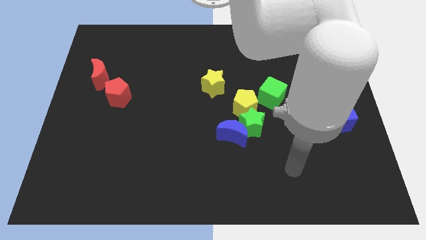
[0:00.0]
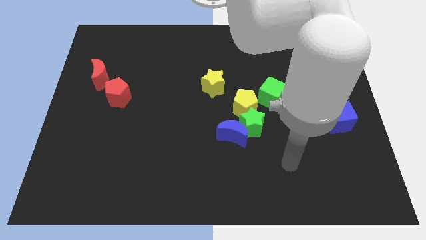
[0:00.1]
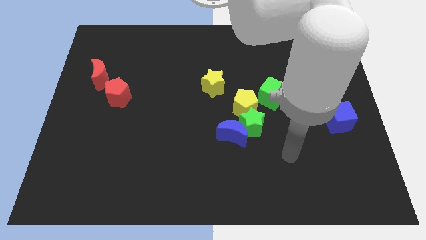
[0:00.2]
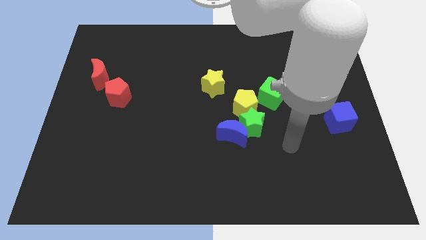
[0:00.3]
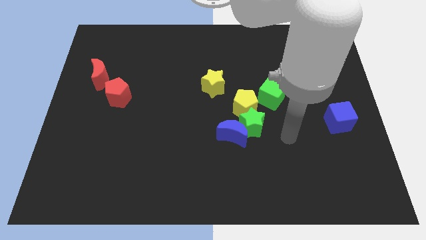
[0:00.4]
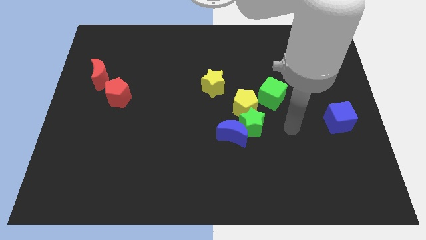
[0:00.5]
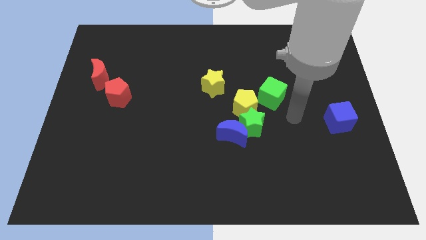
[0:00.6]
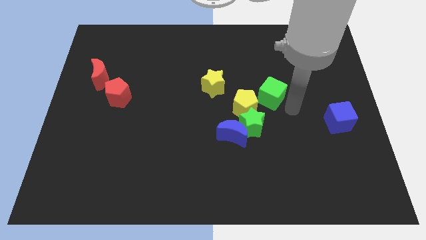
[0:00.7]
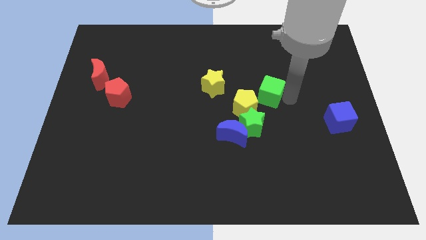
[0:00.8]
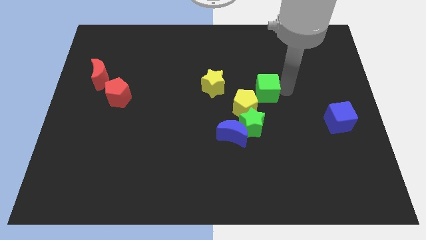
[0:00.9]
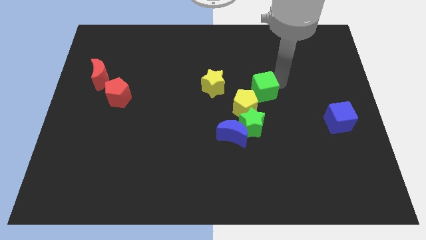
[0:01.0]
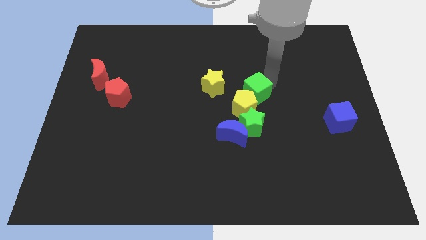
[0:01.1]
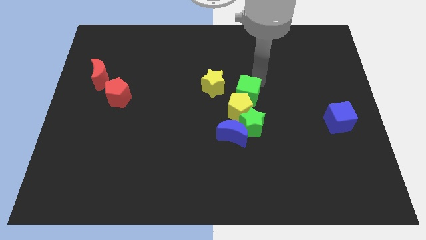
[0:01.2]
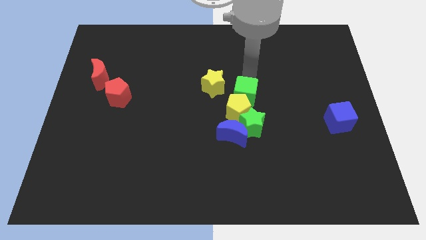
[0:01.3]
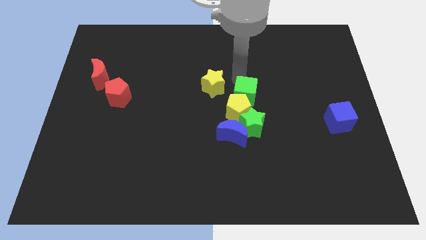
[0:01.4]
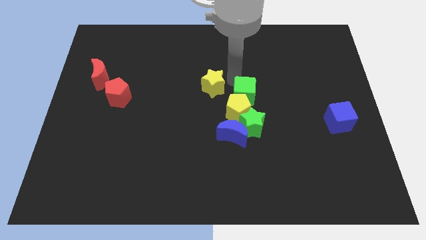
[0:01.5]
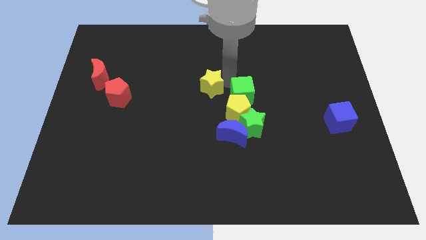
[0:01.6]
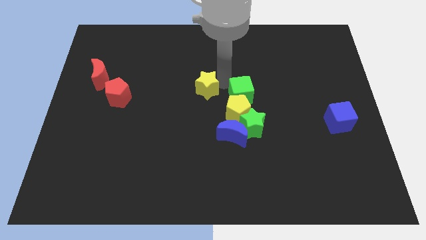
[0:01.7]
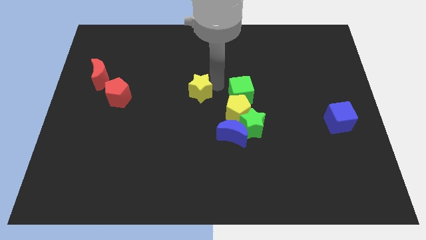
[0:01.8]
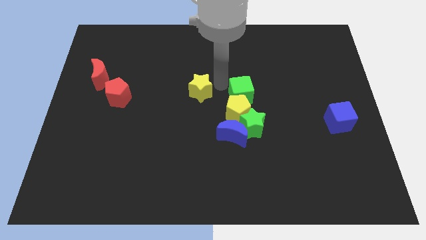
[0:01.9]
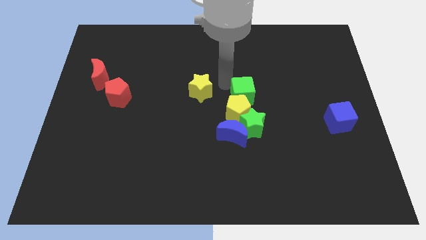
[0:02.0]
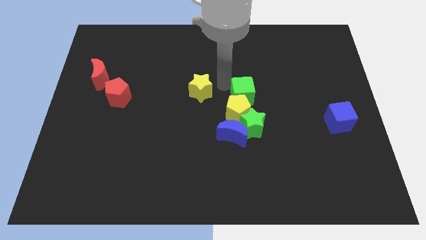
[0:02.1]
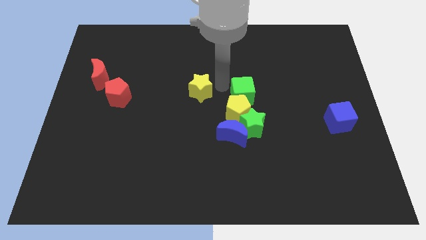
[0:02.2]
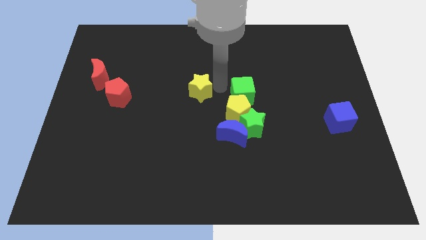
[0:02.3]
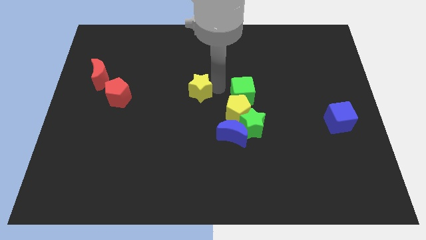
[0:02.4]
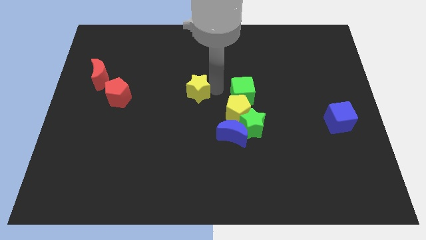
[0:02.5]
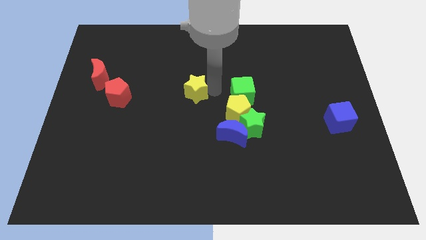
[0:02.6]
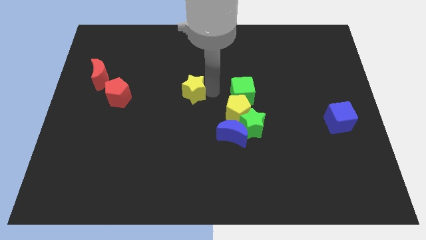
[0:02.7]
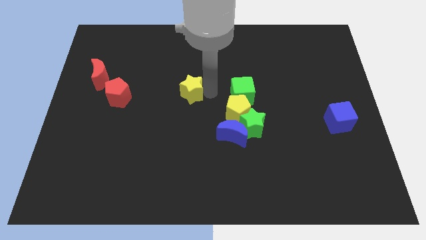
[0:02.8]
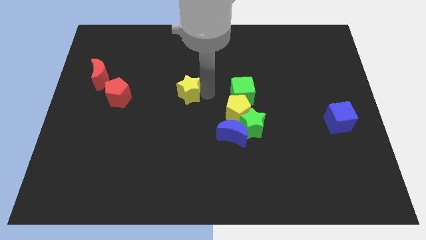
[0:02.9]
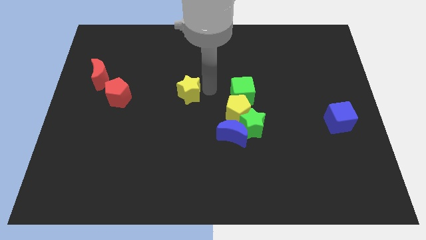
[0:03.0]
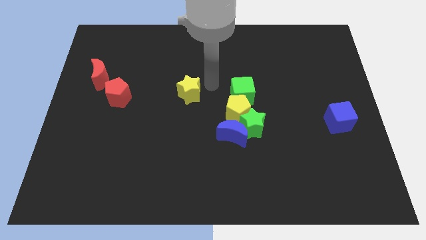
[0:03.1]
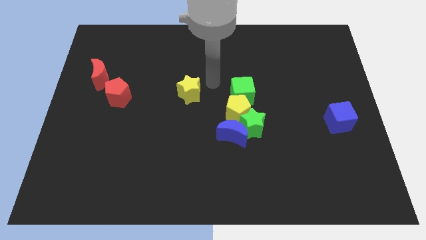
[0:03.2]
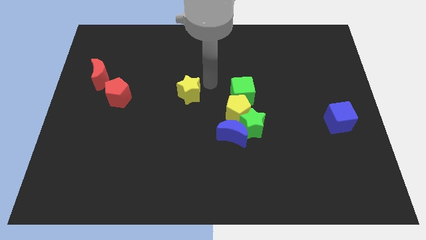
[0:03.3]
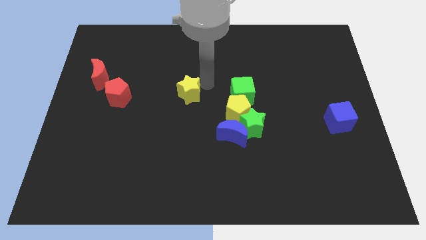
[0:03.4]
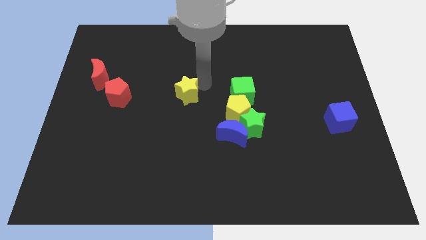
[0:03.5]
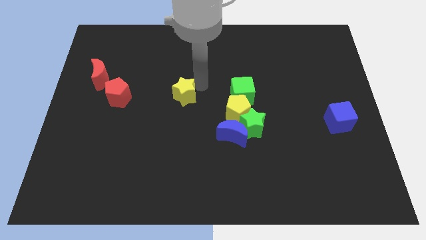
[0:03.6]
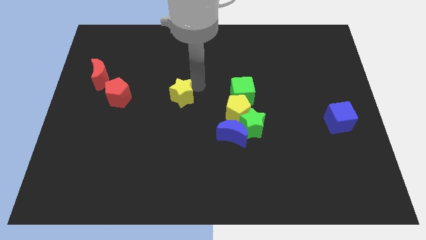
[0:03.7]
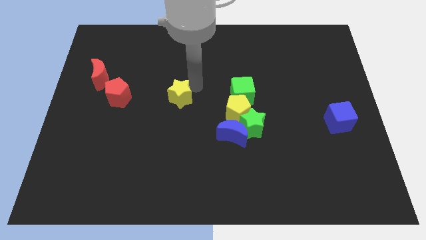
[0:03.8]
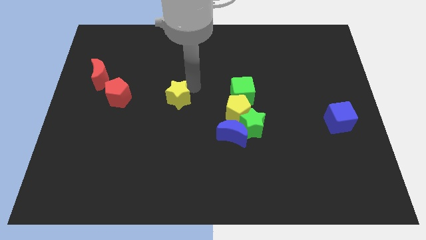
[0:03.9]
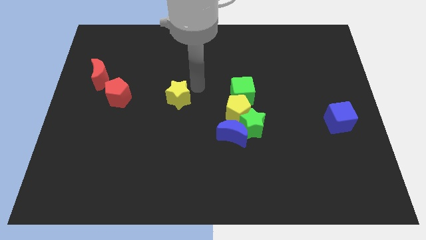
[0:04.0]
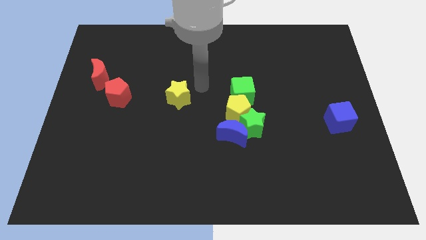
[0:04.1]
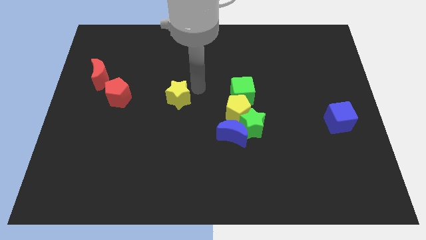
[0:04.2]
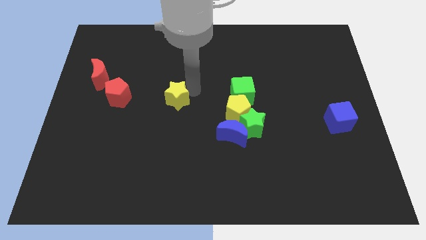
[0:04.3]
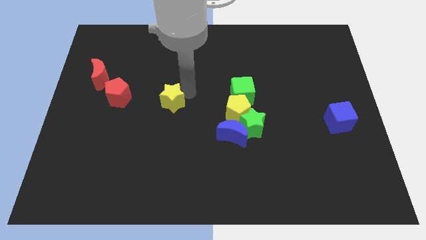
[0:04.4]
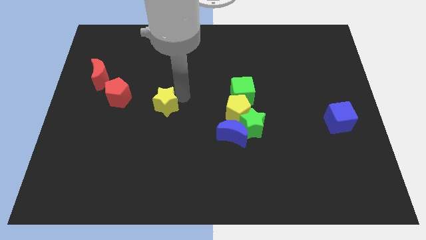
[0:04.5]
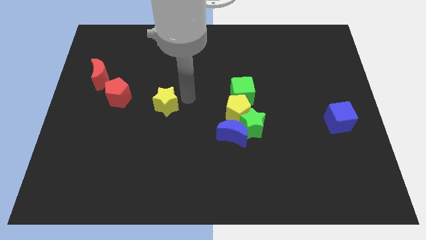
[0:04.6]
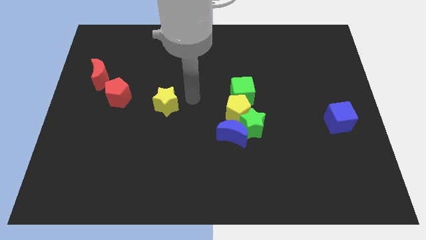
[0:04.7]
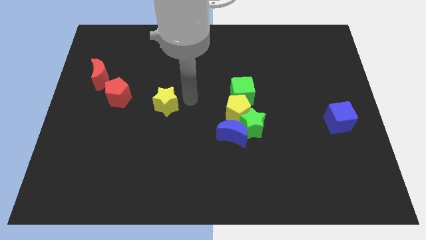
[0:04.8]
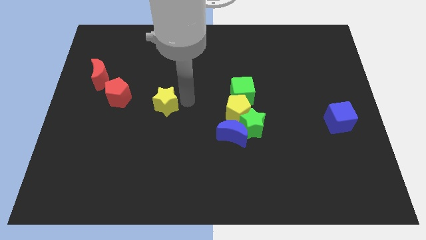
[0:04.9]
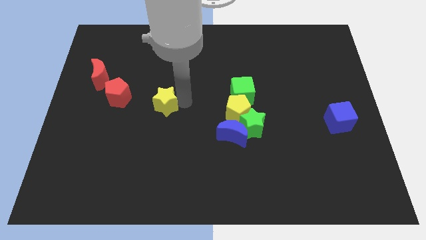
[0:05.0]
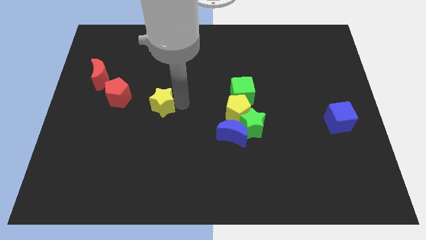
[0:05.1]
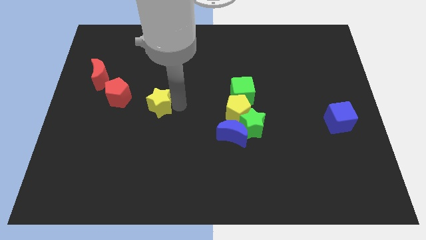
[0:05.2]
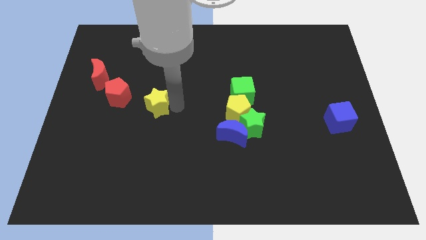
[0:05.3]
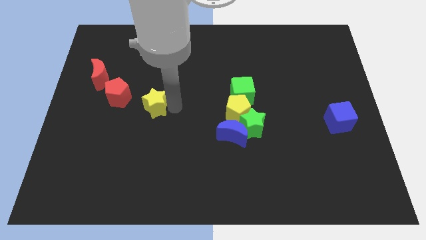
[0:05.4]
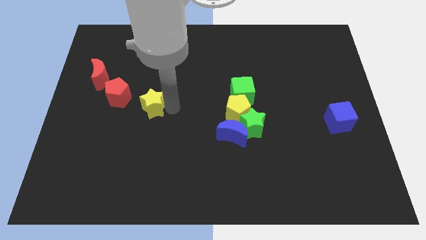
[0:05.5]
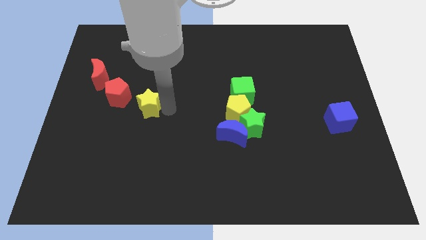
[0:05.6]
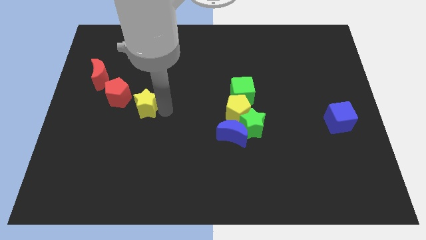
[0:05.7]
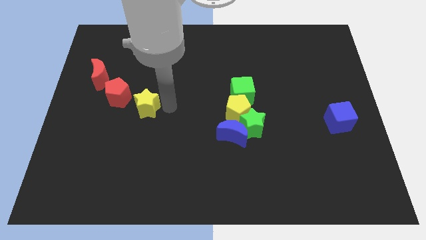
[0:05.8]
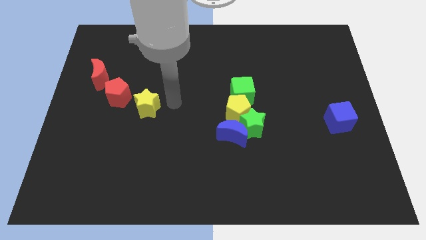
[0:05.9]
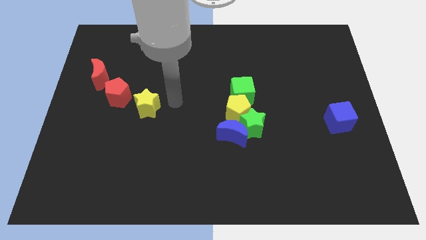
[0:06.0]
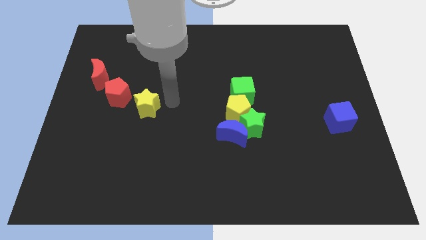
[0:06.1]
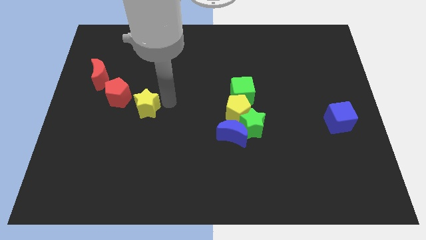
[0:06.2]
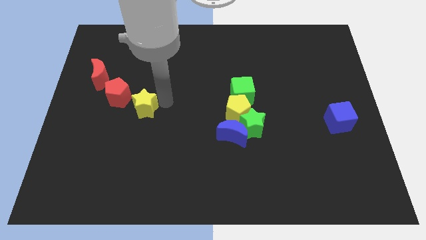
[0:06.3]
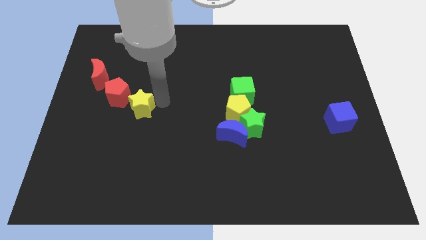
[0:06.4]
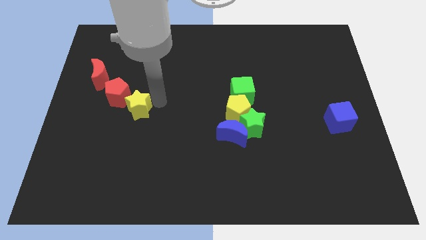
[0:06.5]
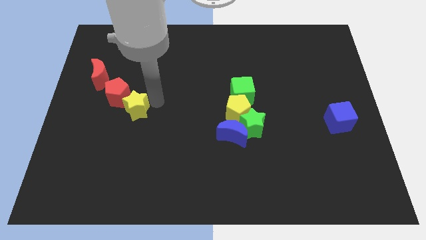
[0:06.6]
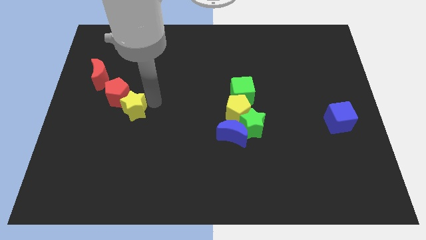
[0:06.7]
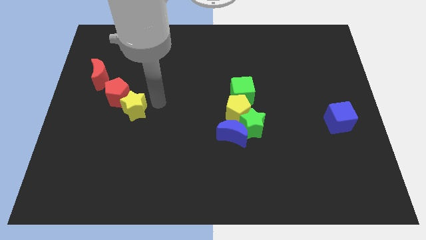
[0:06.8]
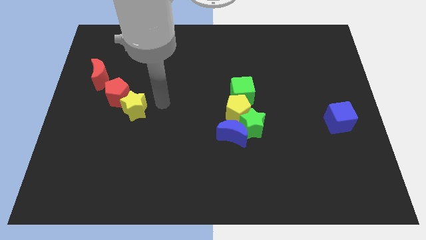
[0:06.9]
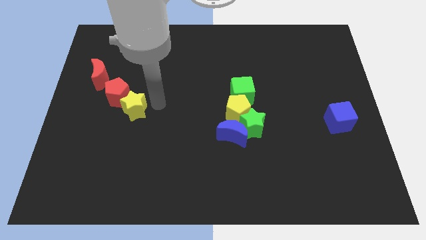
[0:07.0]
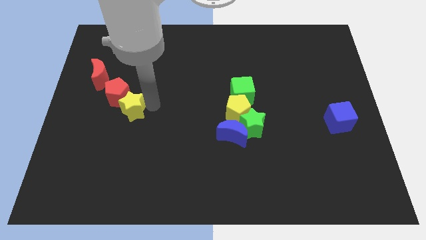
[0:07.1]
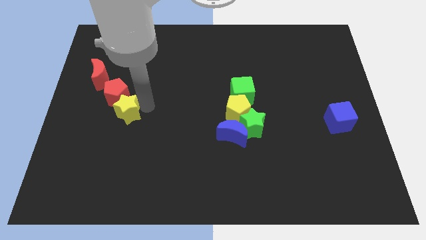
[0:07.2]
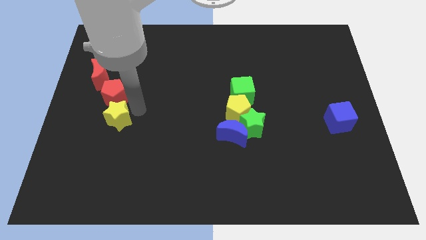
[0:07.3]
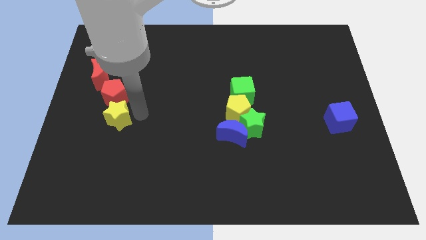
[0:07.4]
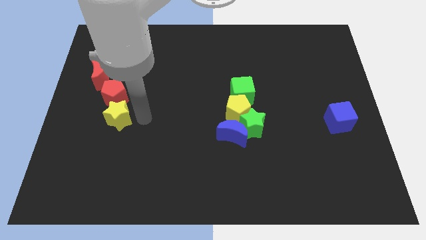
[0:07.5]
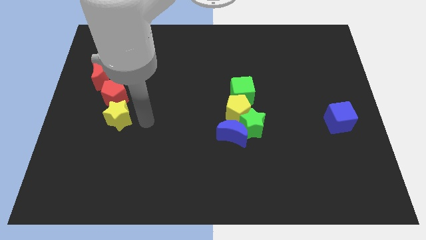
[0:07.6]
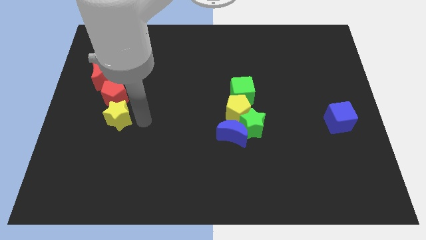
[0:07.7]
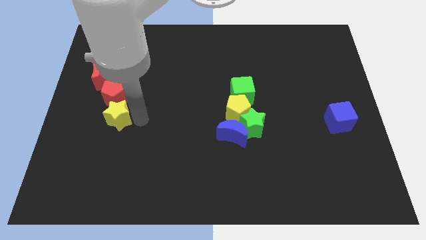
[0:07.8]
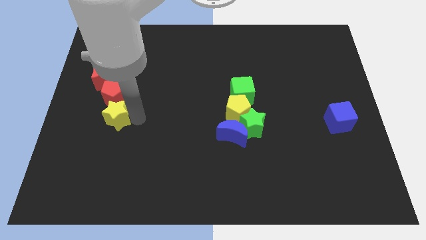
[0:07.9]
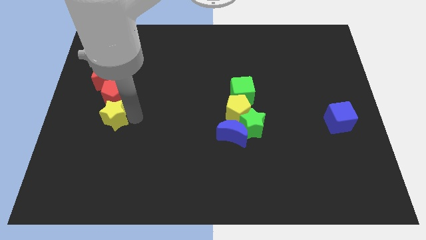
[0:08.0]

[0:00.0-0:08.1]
move the yellow star to the bottom left side of the red pentagon
